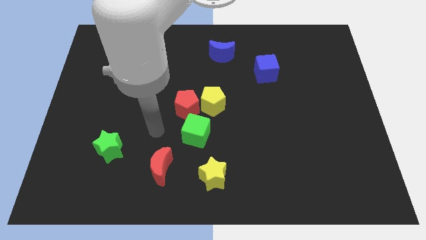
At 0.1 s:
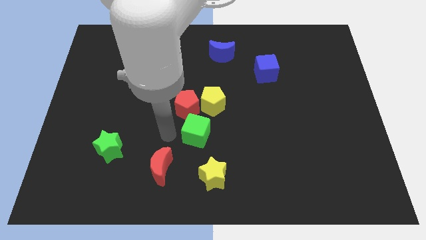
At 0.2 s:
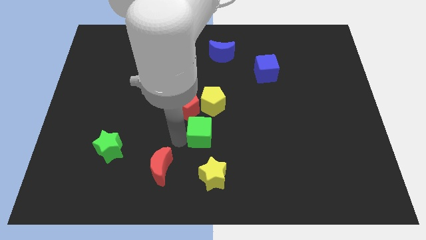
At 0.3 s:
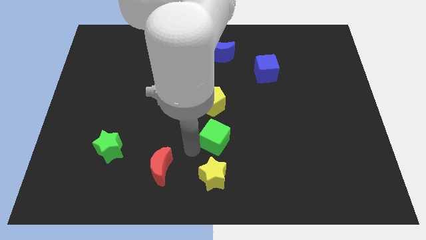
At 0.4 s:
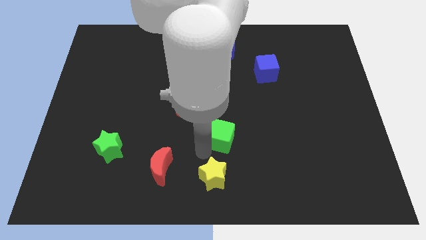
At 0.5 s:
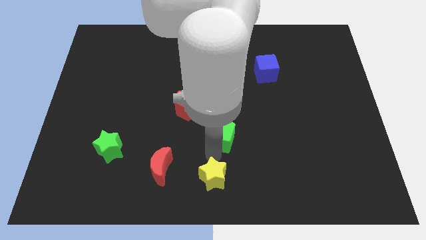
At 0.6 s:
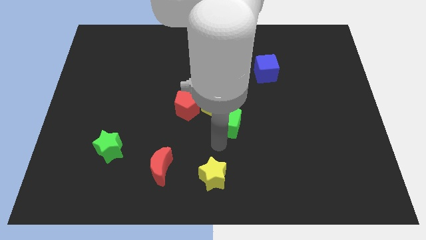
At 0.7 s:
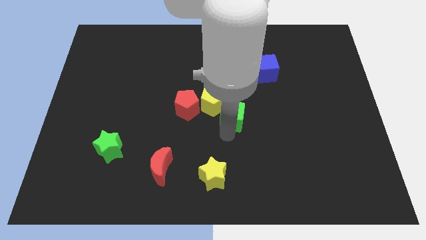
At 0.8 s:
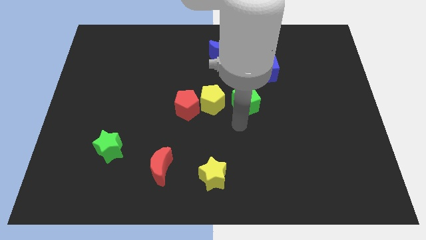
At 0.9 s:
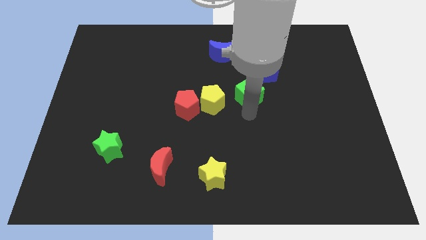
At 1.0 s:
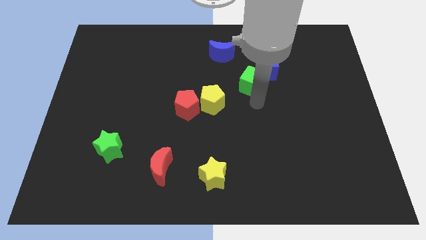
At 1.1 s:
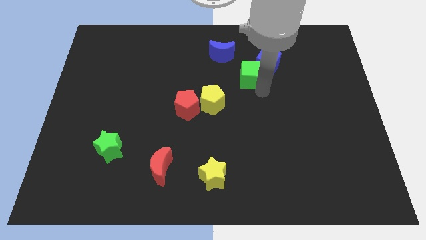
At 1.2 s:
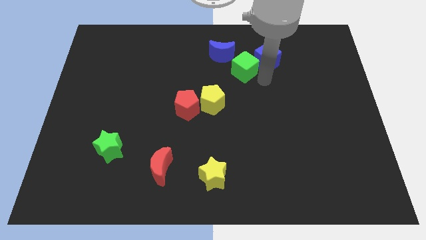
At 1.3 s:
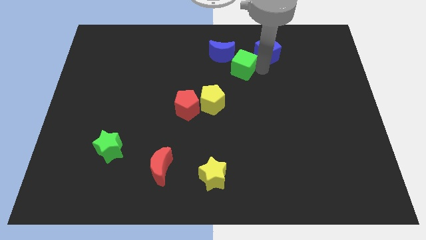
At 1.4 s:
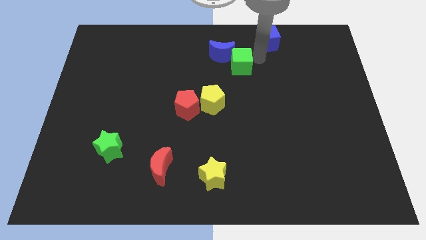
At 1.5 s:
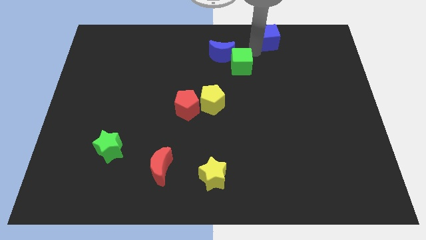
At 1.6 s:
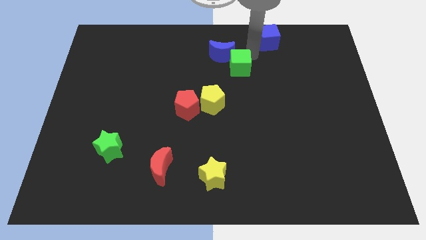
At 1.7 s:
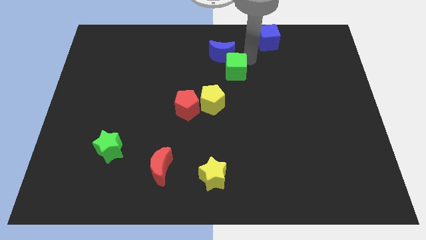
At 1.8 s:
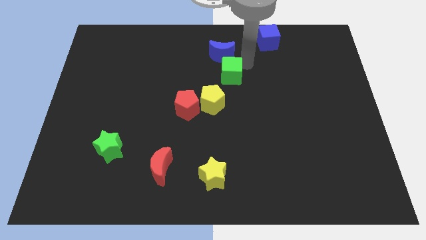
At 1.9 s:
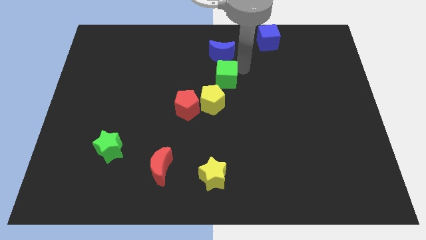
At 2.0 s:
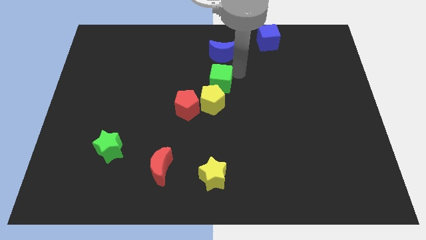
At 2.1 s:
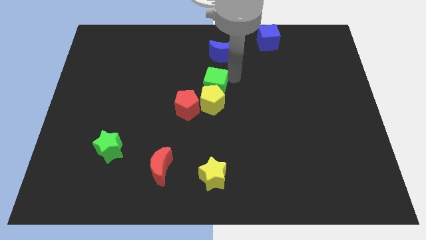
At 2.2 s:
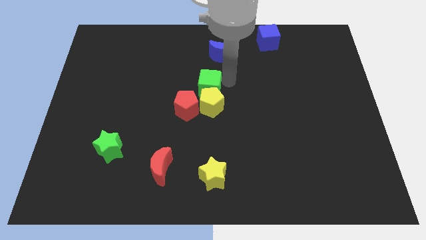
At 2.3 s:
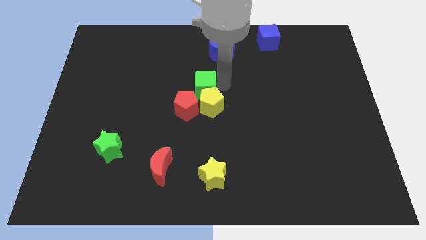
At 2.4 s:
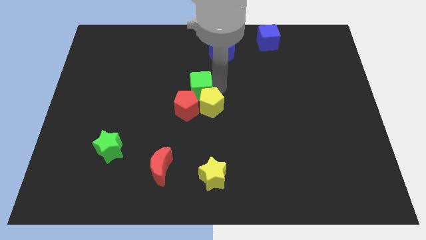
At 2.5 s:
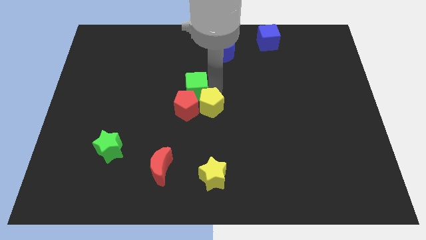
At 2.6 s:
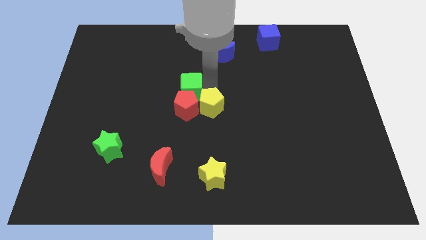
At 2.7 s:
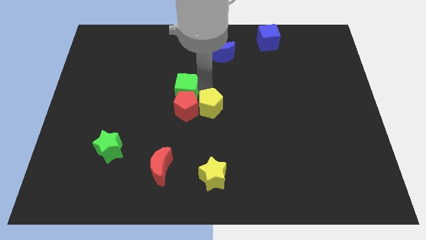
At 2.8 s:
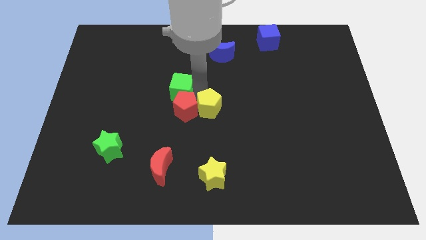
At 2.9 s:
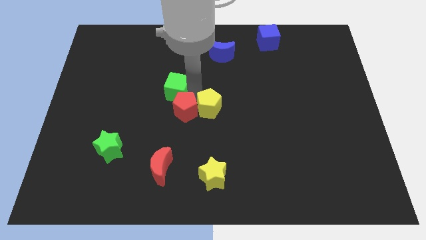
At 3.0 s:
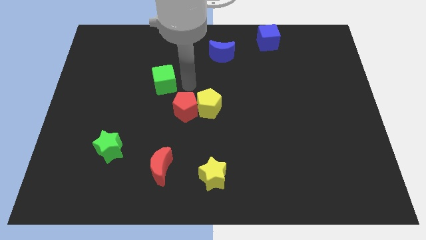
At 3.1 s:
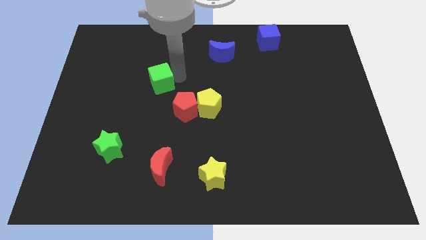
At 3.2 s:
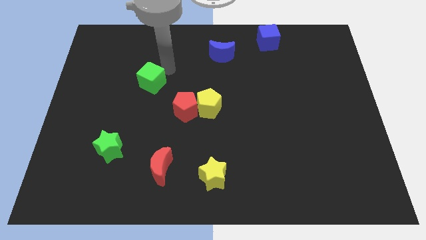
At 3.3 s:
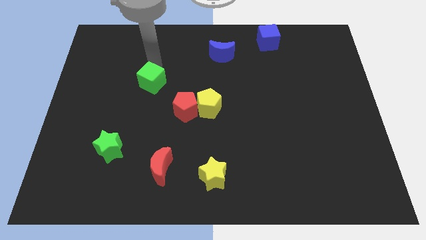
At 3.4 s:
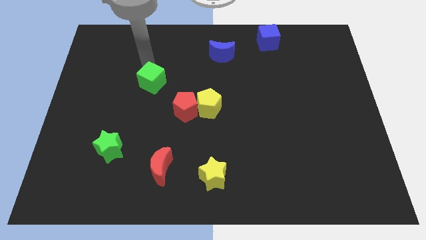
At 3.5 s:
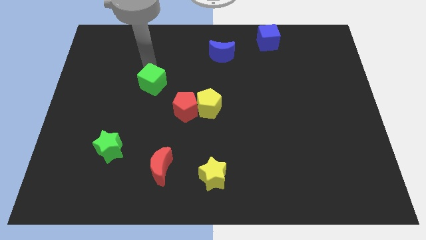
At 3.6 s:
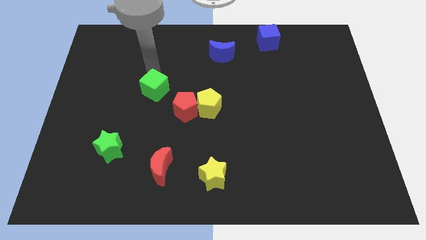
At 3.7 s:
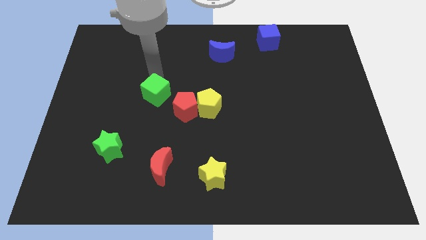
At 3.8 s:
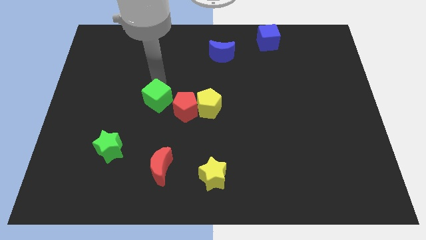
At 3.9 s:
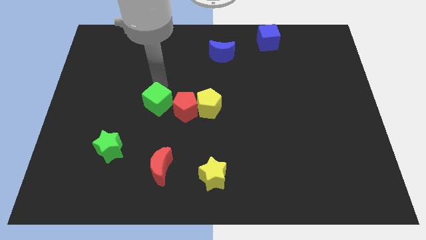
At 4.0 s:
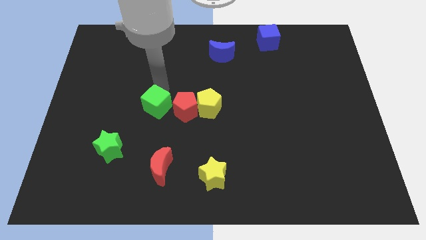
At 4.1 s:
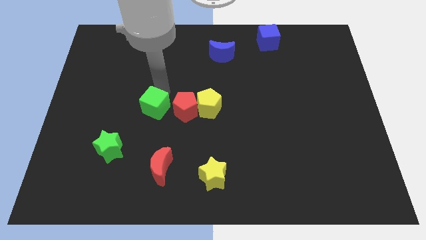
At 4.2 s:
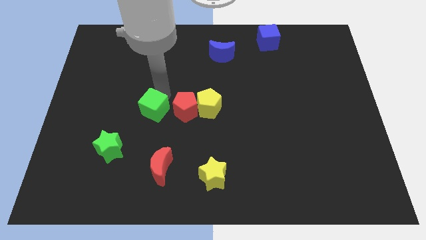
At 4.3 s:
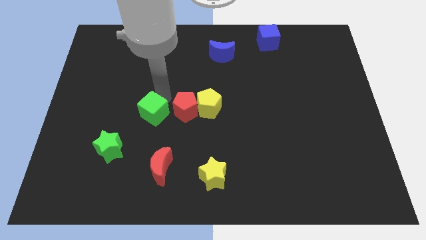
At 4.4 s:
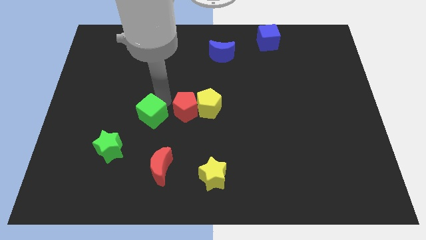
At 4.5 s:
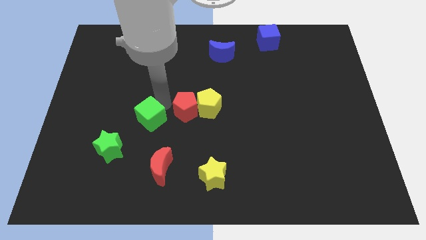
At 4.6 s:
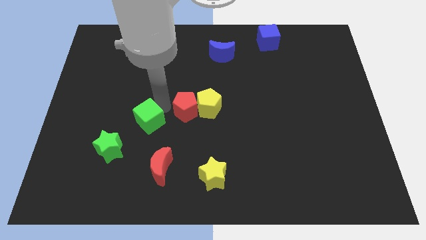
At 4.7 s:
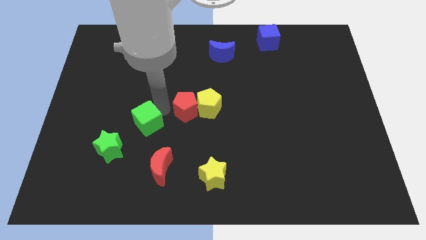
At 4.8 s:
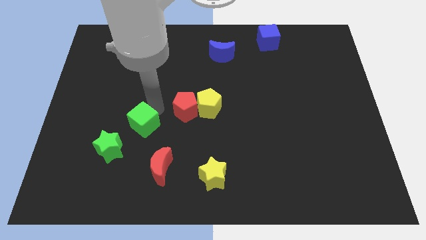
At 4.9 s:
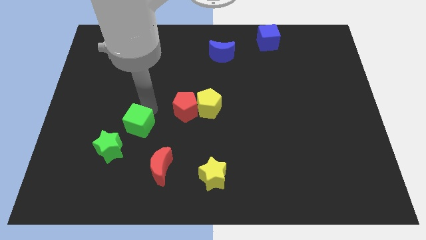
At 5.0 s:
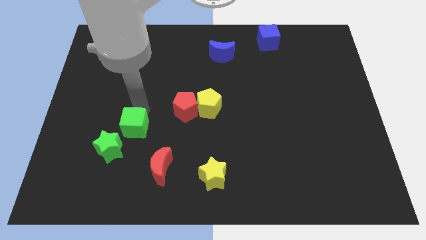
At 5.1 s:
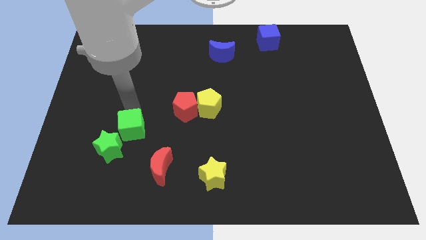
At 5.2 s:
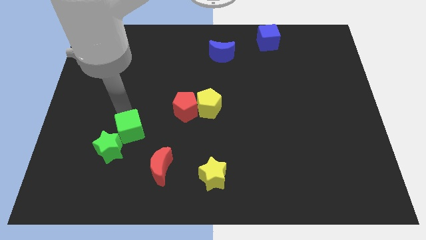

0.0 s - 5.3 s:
move the green cube close to the green star

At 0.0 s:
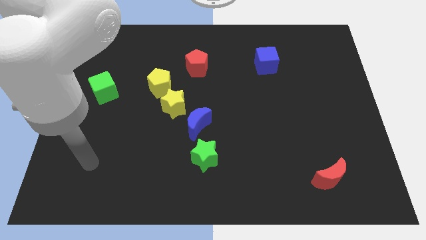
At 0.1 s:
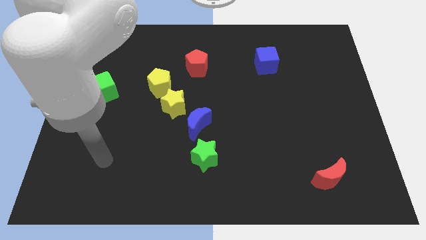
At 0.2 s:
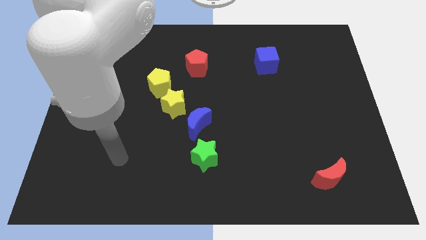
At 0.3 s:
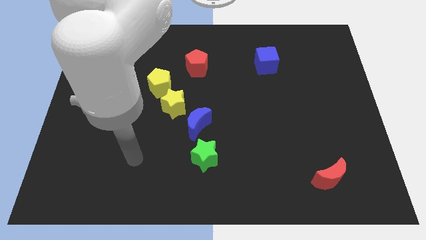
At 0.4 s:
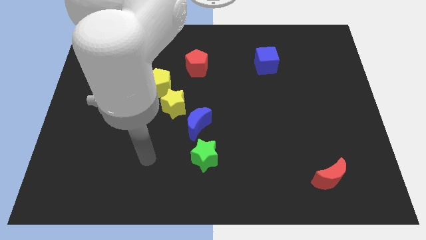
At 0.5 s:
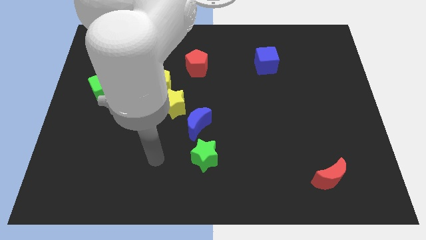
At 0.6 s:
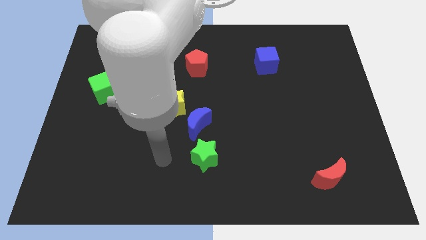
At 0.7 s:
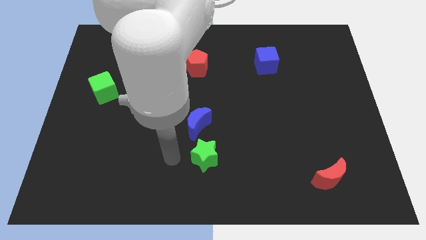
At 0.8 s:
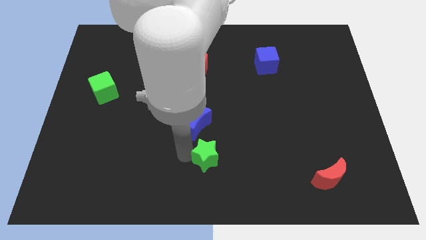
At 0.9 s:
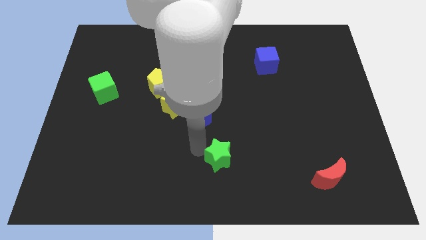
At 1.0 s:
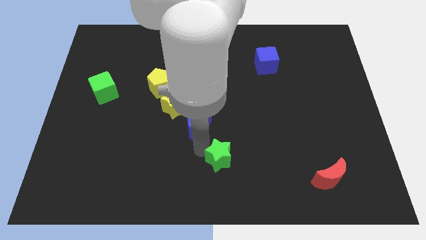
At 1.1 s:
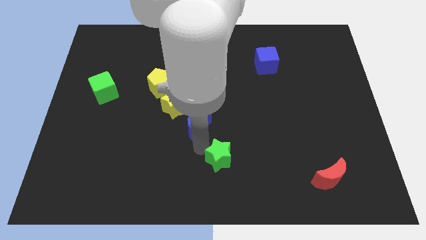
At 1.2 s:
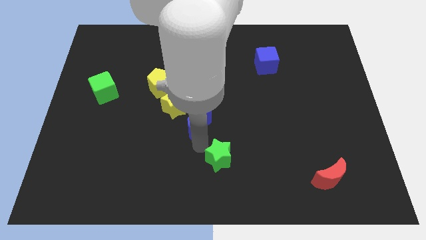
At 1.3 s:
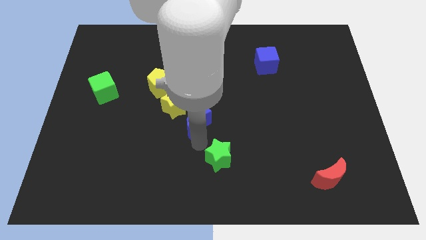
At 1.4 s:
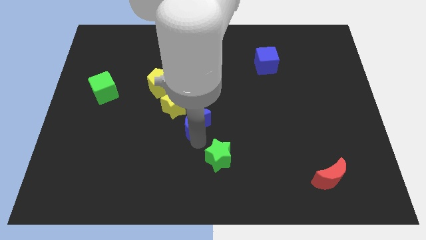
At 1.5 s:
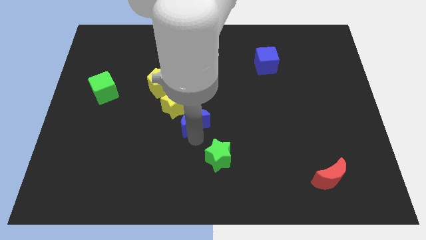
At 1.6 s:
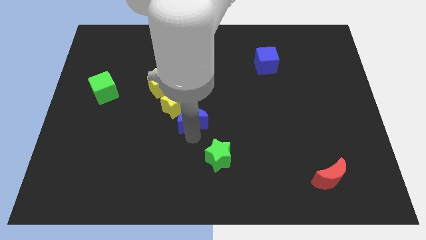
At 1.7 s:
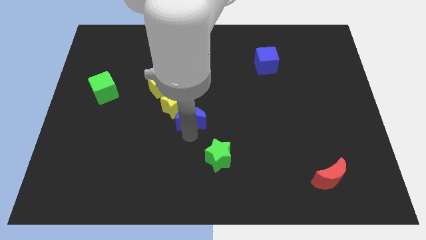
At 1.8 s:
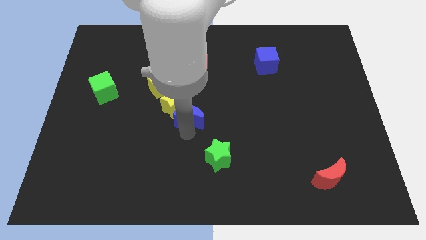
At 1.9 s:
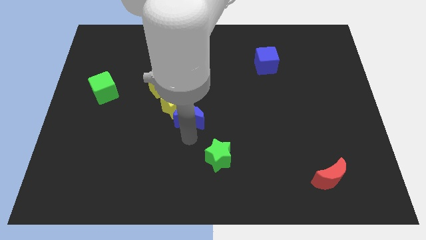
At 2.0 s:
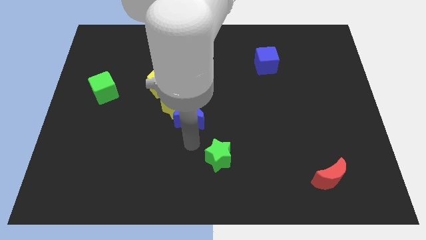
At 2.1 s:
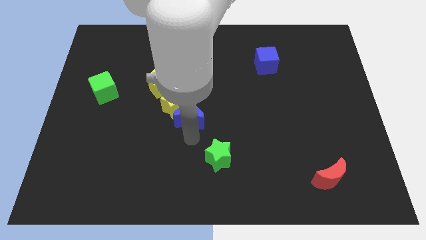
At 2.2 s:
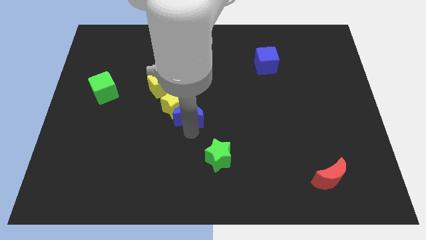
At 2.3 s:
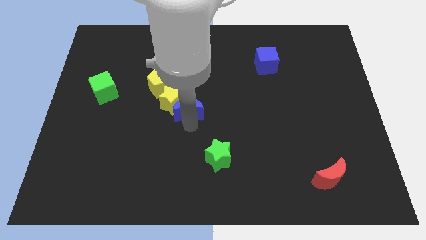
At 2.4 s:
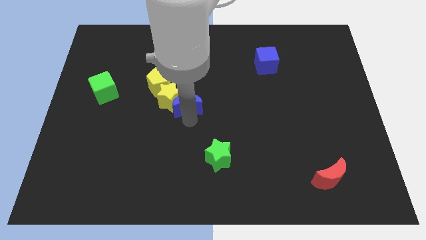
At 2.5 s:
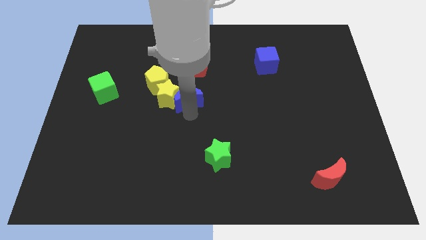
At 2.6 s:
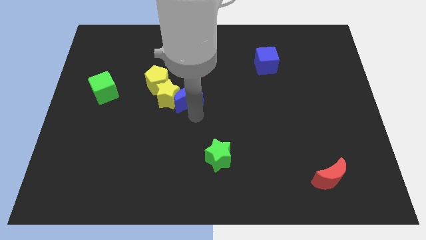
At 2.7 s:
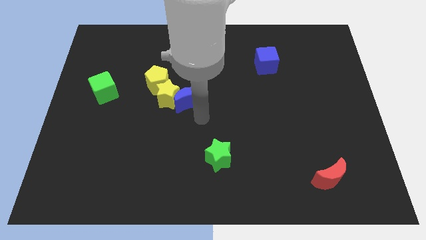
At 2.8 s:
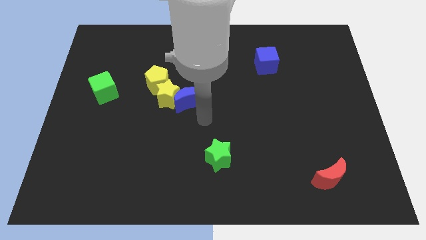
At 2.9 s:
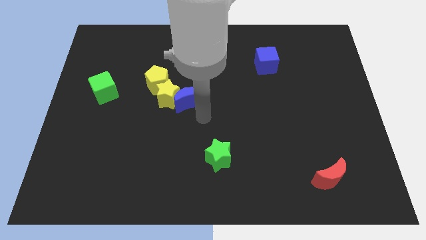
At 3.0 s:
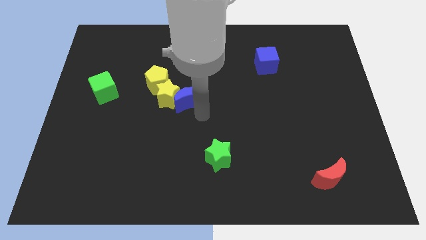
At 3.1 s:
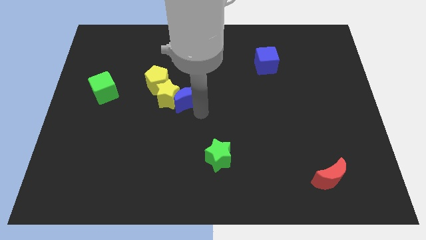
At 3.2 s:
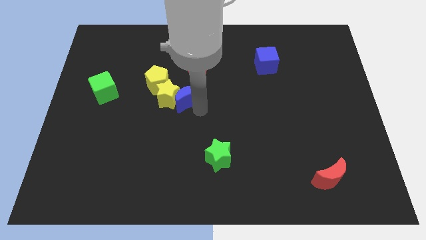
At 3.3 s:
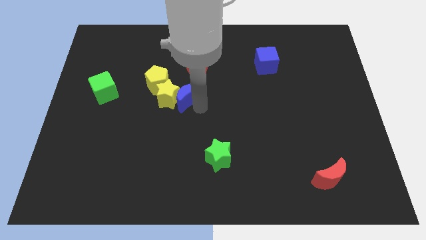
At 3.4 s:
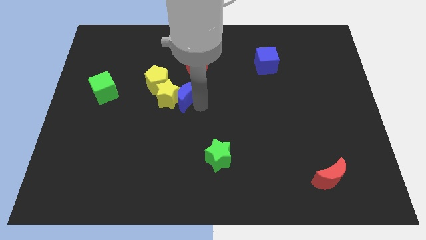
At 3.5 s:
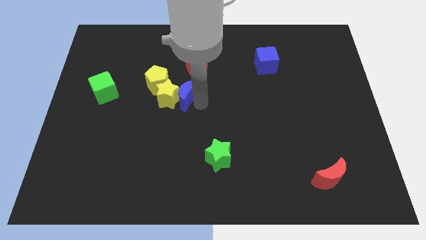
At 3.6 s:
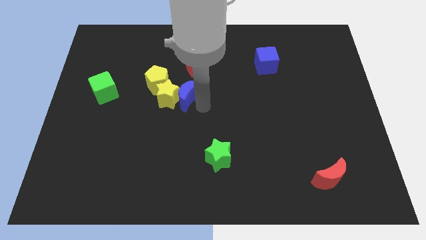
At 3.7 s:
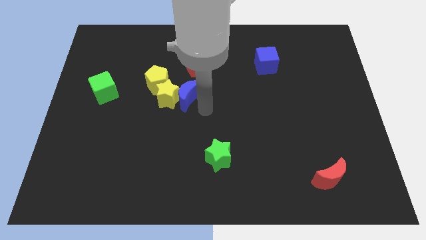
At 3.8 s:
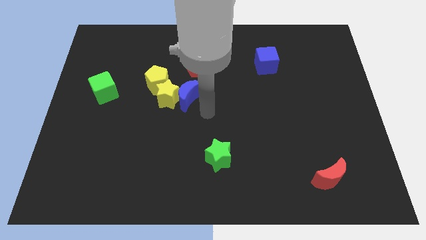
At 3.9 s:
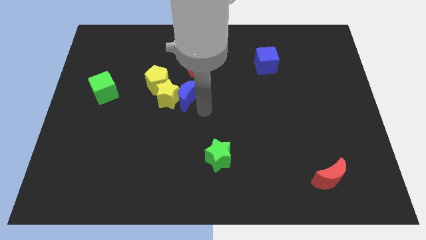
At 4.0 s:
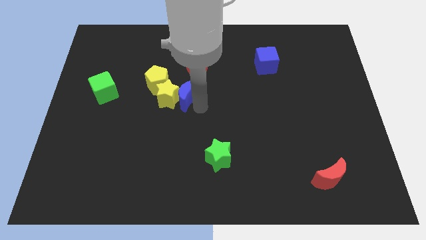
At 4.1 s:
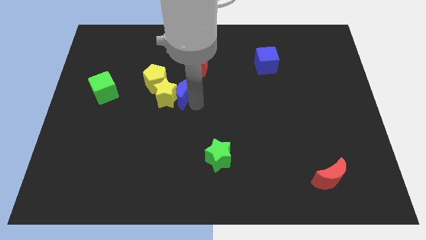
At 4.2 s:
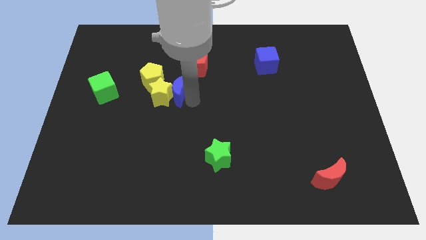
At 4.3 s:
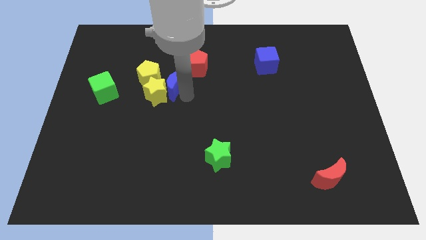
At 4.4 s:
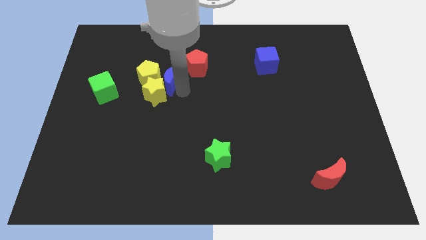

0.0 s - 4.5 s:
put the blue moon next to the yellow pentagon
